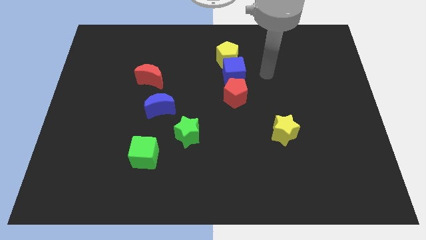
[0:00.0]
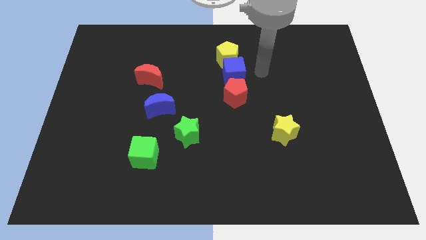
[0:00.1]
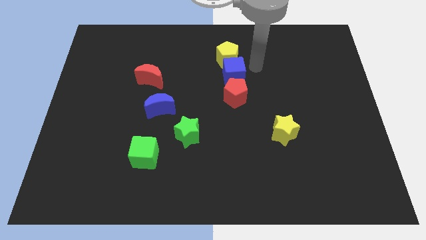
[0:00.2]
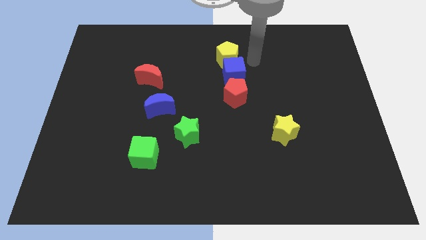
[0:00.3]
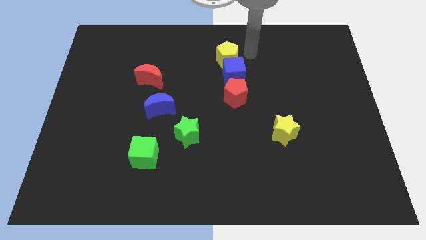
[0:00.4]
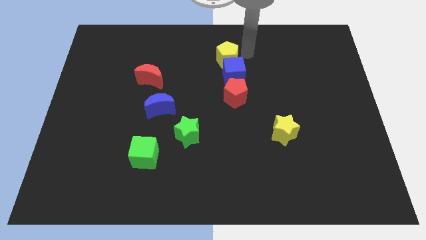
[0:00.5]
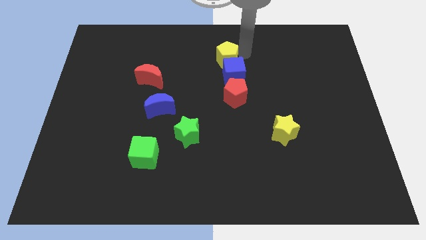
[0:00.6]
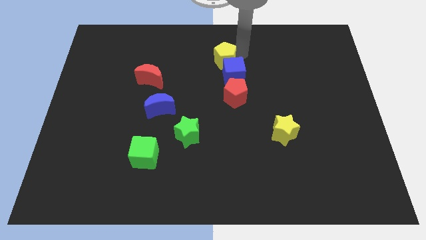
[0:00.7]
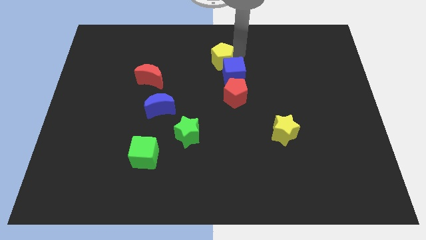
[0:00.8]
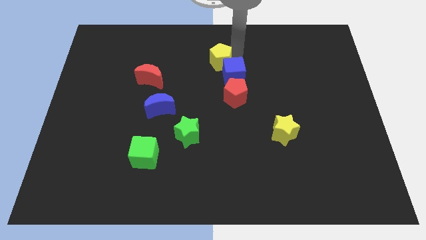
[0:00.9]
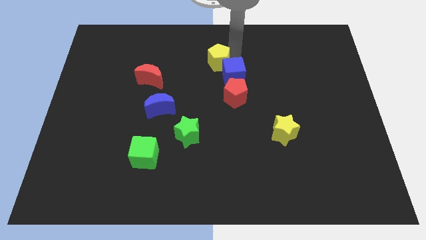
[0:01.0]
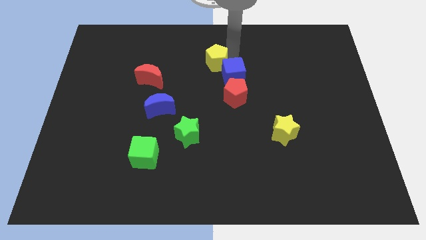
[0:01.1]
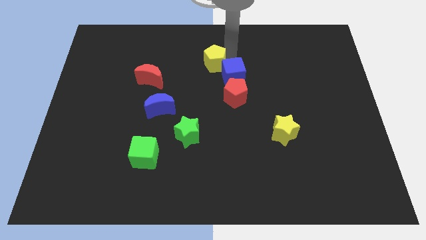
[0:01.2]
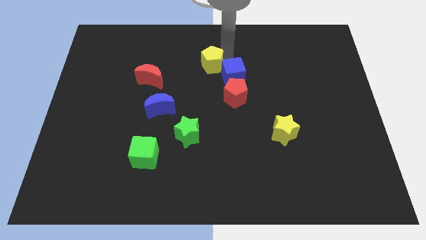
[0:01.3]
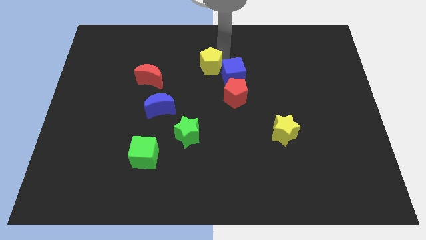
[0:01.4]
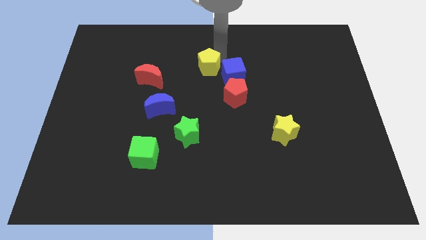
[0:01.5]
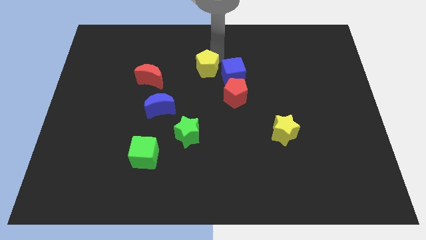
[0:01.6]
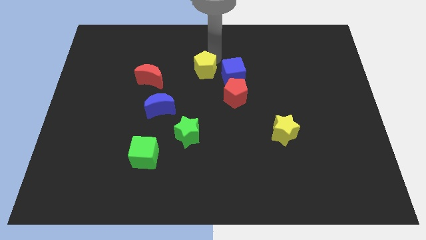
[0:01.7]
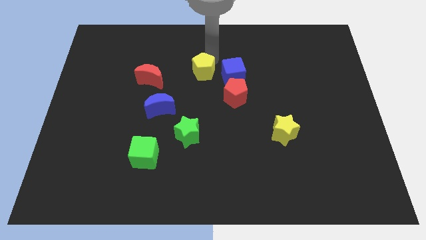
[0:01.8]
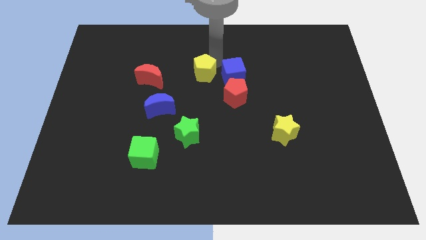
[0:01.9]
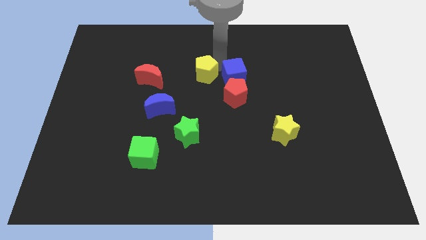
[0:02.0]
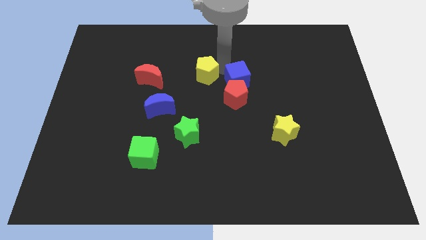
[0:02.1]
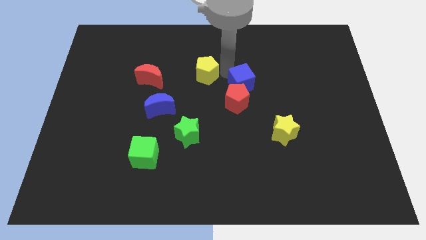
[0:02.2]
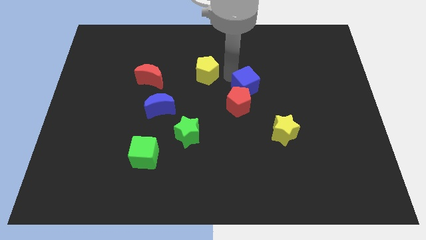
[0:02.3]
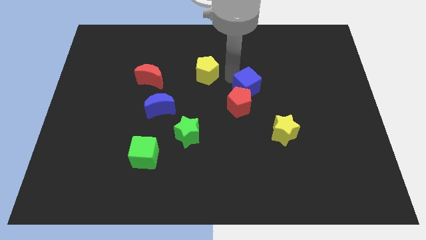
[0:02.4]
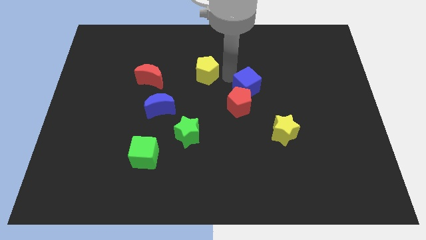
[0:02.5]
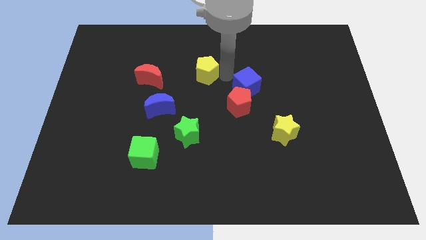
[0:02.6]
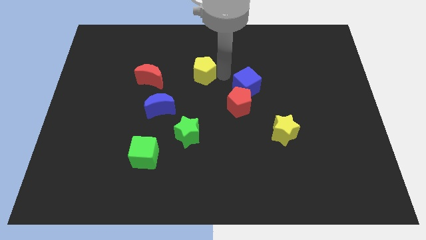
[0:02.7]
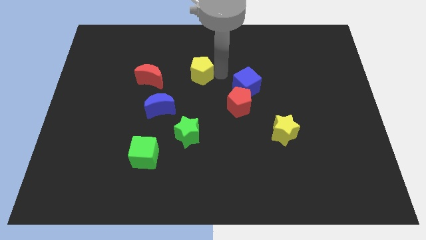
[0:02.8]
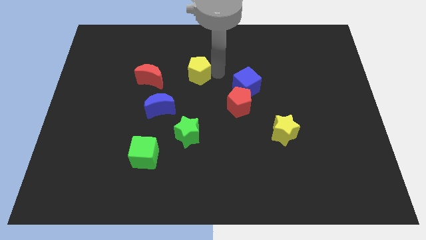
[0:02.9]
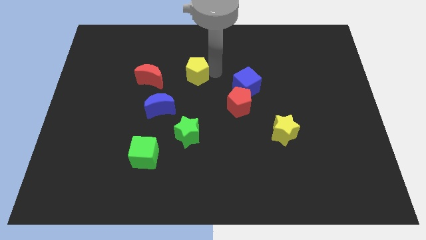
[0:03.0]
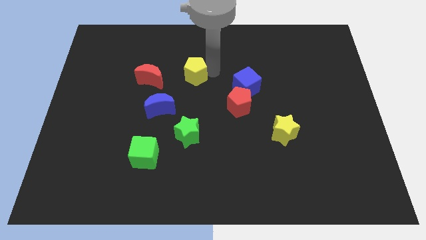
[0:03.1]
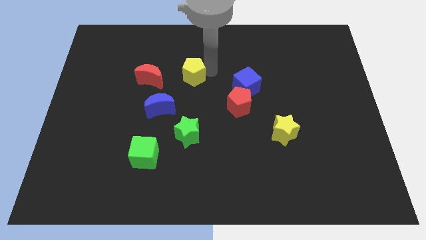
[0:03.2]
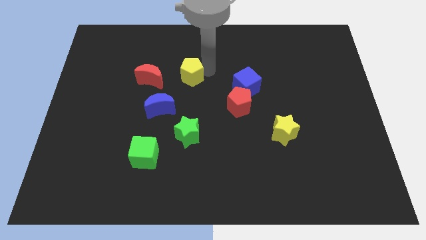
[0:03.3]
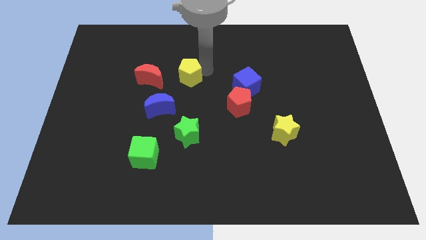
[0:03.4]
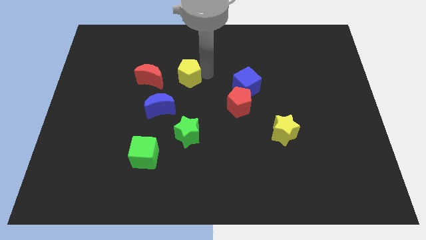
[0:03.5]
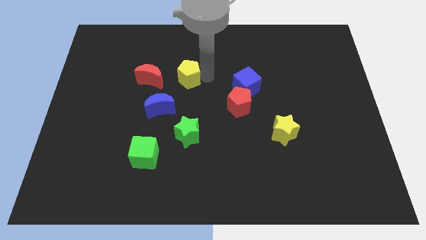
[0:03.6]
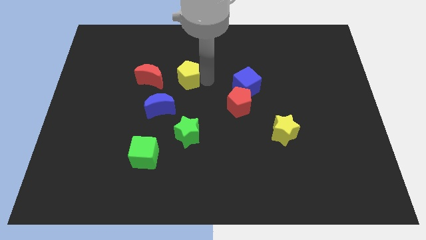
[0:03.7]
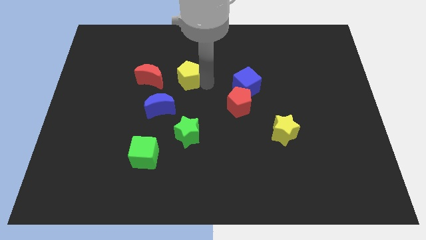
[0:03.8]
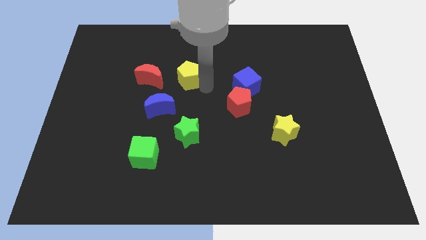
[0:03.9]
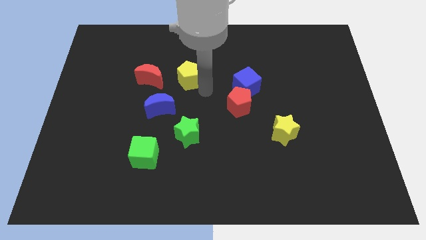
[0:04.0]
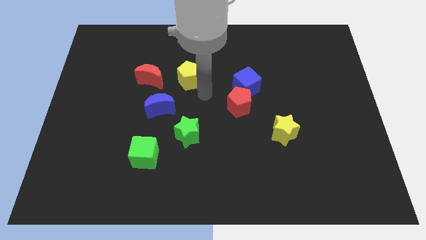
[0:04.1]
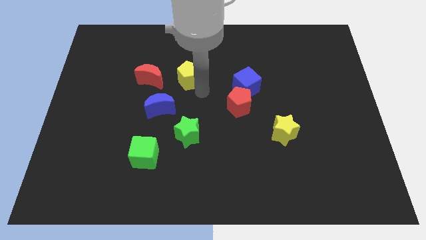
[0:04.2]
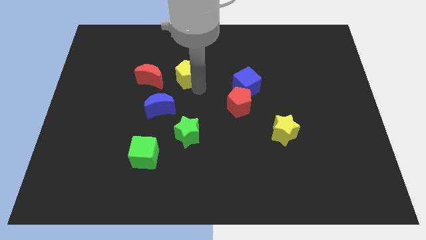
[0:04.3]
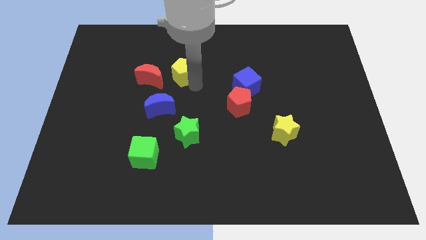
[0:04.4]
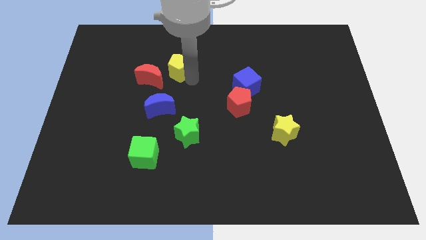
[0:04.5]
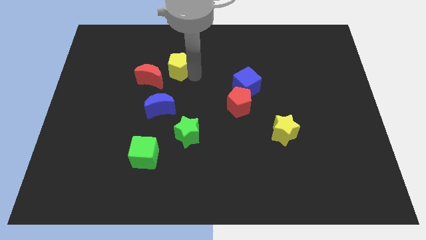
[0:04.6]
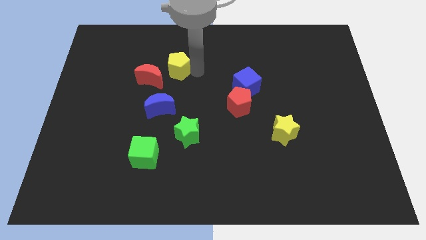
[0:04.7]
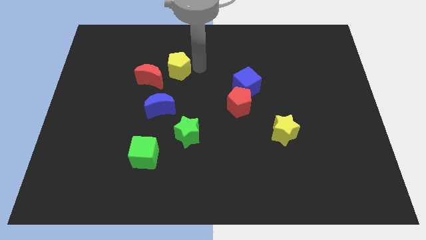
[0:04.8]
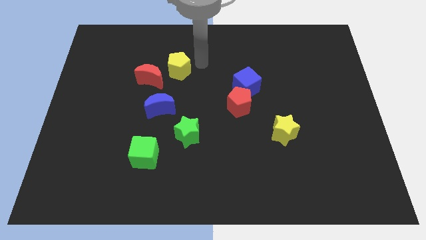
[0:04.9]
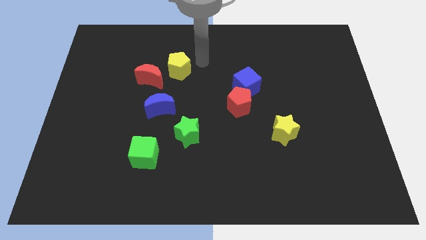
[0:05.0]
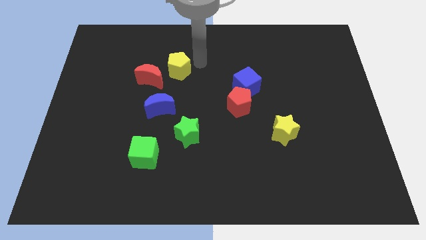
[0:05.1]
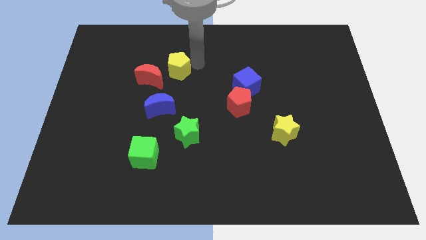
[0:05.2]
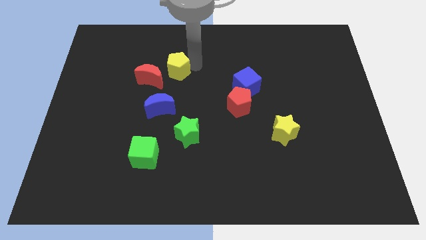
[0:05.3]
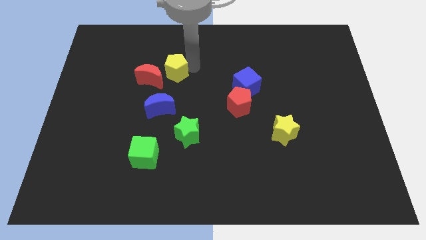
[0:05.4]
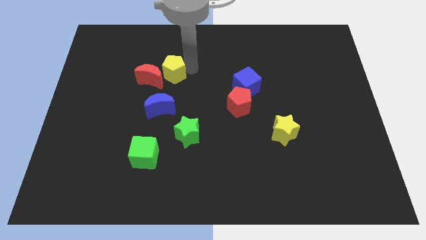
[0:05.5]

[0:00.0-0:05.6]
put the yellow pentagon to the red moon
